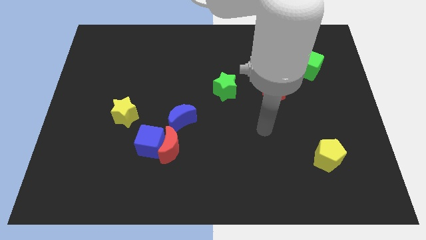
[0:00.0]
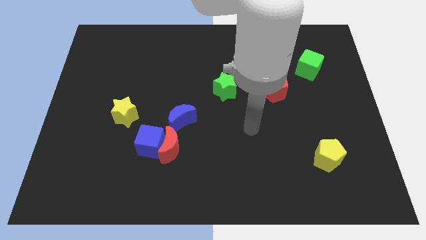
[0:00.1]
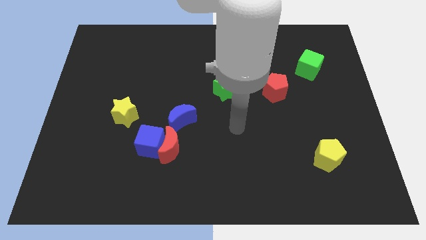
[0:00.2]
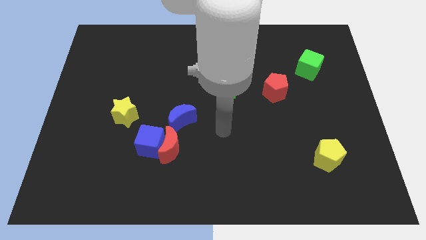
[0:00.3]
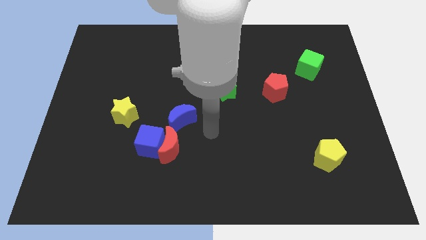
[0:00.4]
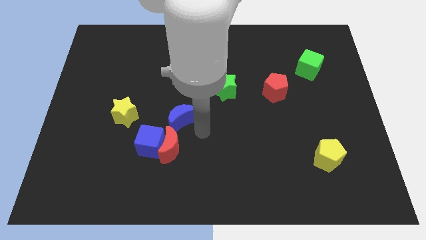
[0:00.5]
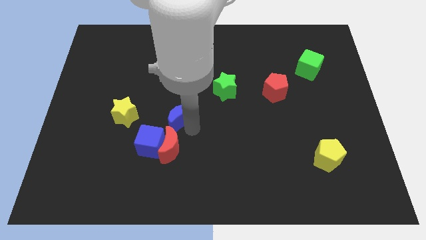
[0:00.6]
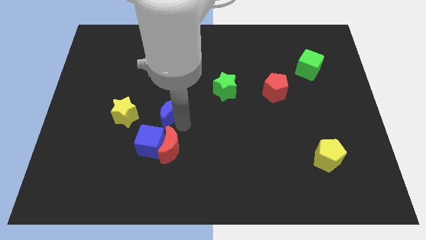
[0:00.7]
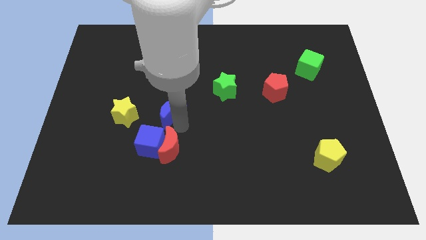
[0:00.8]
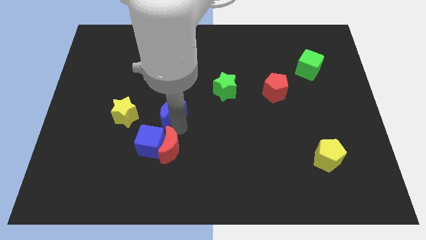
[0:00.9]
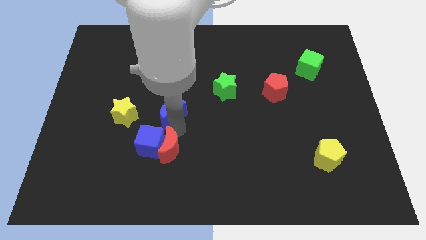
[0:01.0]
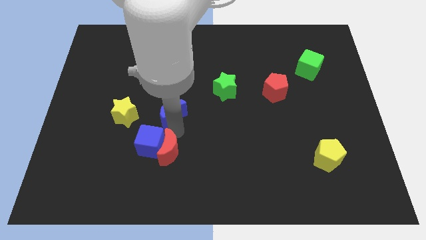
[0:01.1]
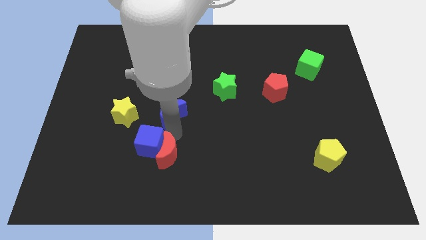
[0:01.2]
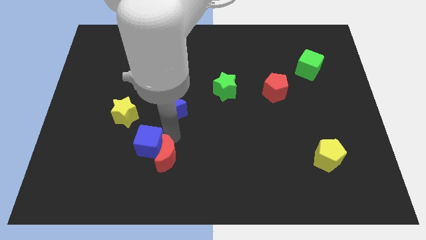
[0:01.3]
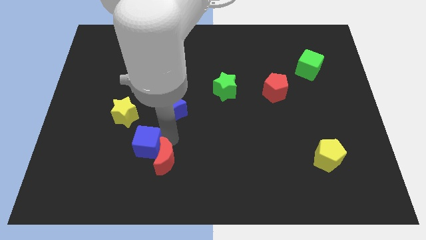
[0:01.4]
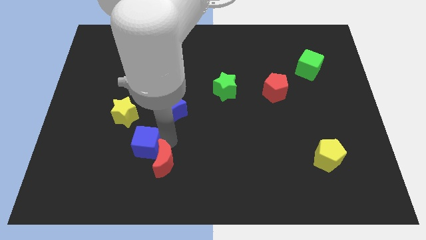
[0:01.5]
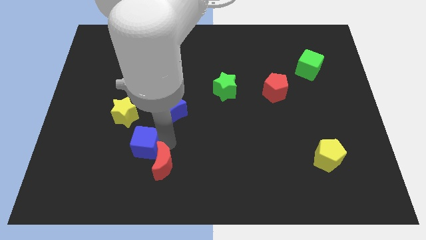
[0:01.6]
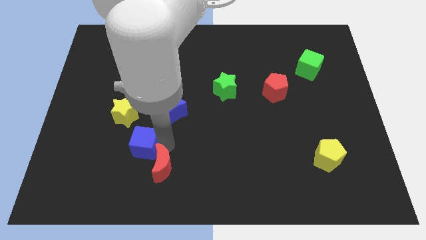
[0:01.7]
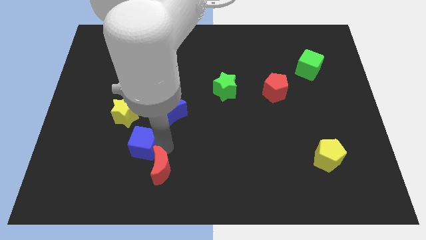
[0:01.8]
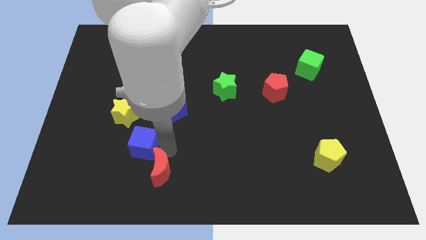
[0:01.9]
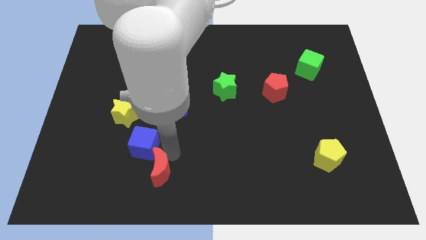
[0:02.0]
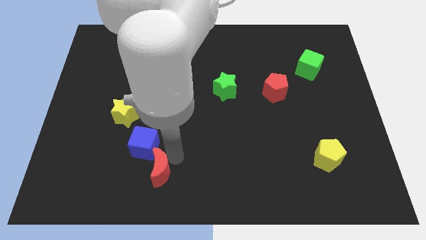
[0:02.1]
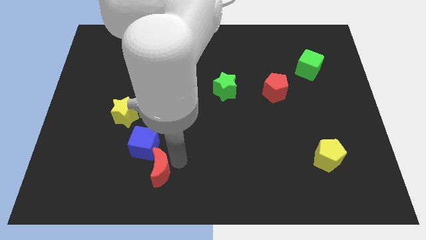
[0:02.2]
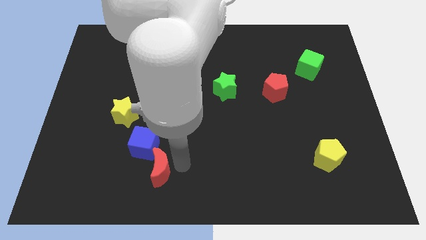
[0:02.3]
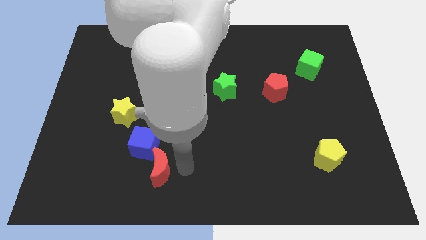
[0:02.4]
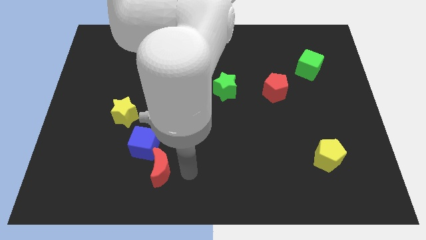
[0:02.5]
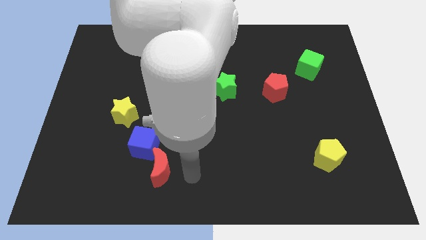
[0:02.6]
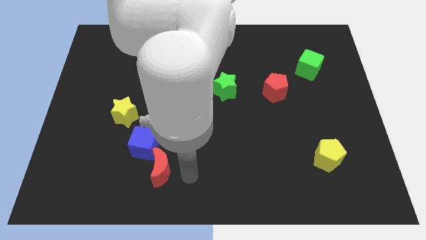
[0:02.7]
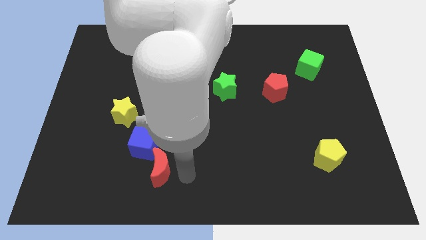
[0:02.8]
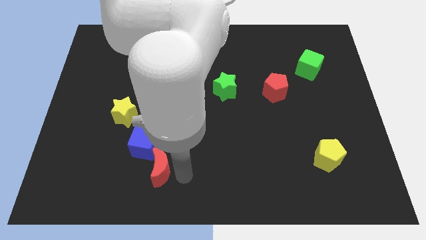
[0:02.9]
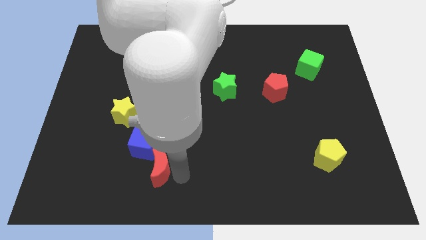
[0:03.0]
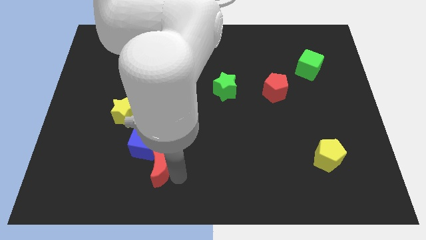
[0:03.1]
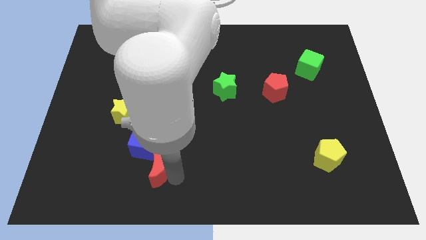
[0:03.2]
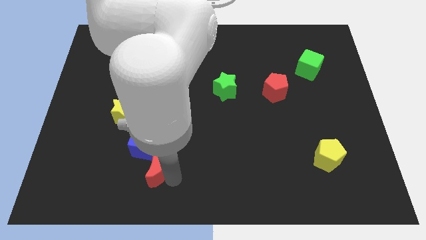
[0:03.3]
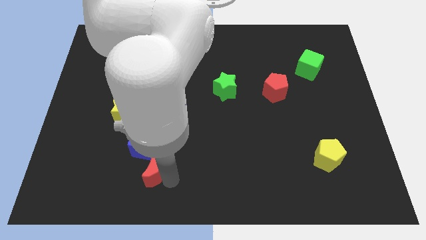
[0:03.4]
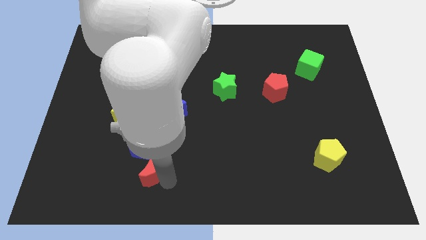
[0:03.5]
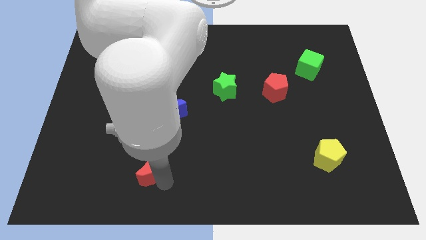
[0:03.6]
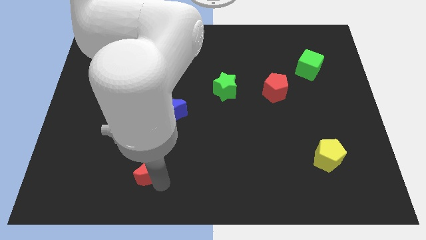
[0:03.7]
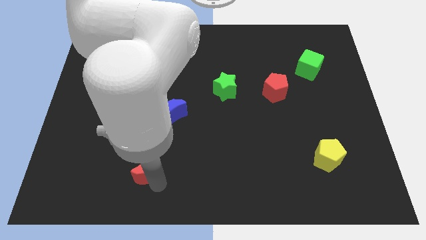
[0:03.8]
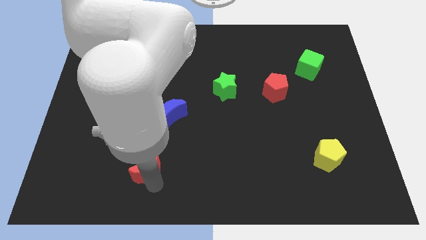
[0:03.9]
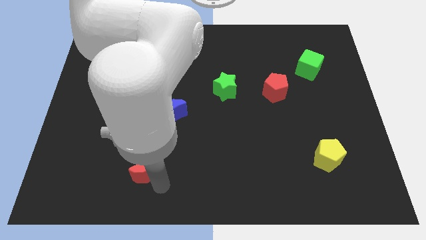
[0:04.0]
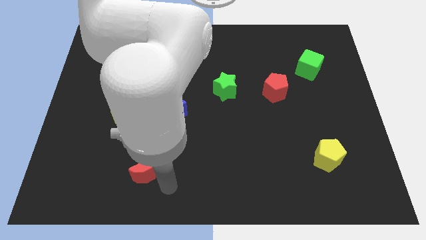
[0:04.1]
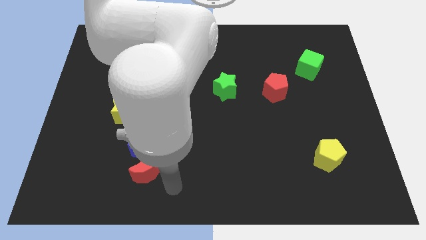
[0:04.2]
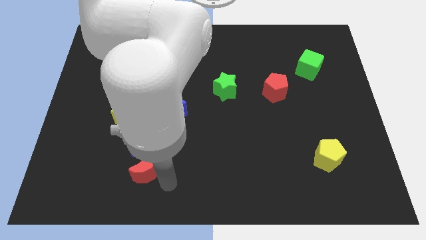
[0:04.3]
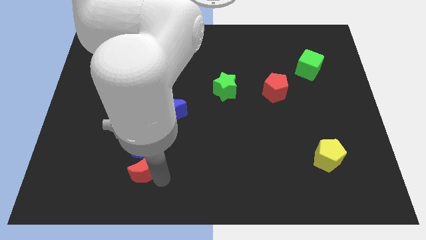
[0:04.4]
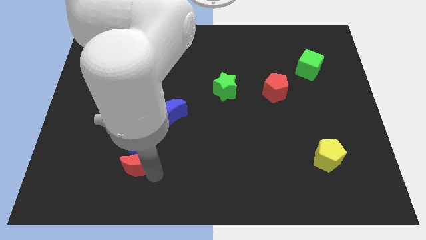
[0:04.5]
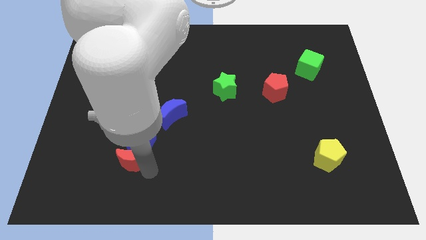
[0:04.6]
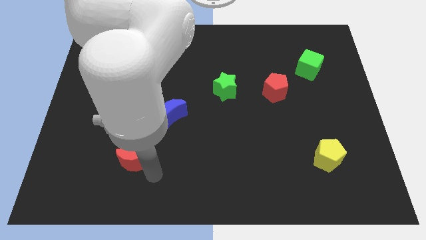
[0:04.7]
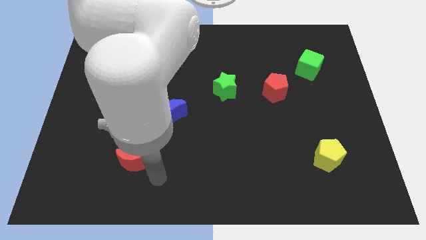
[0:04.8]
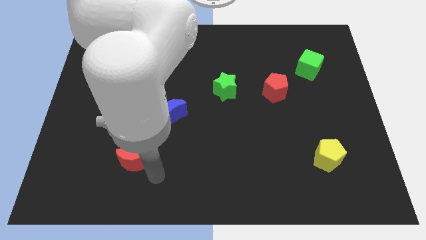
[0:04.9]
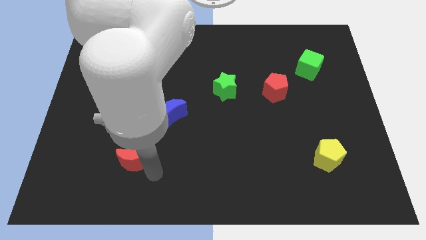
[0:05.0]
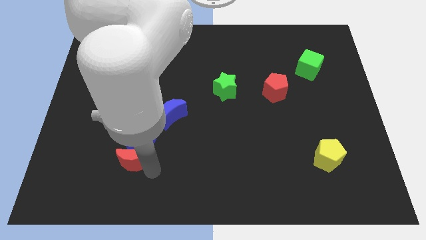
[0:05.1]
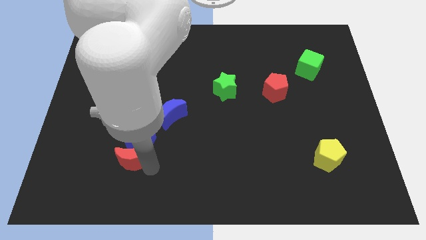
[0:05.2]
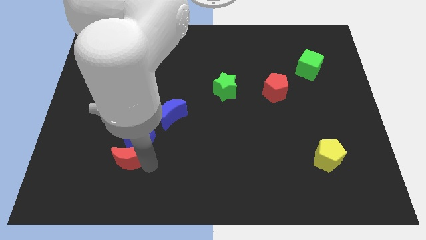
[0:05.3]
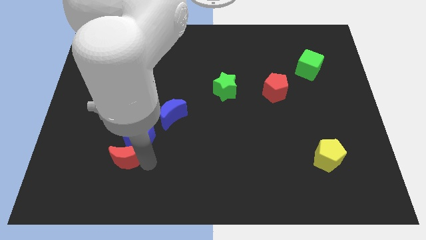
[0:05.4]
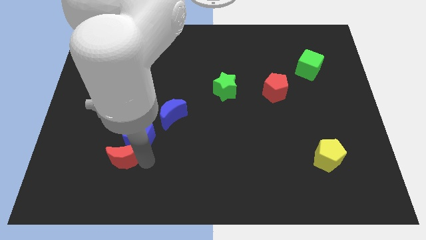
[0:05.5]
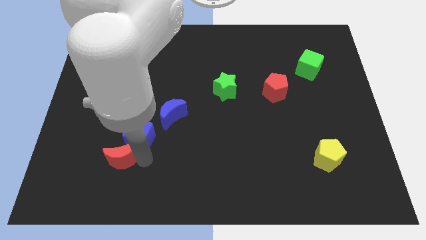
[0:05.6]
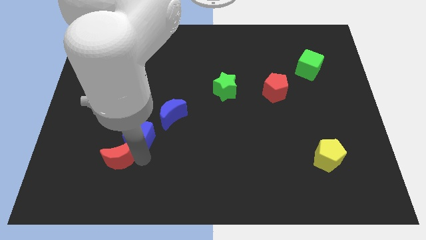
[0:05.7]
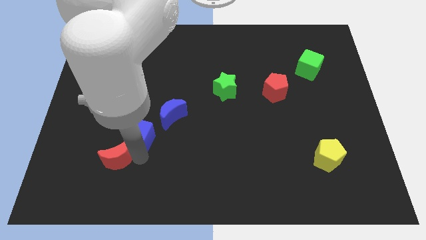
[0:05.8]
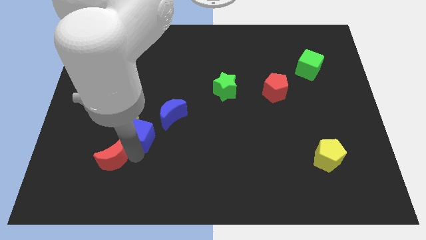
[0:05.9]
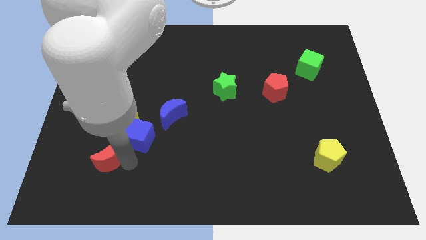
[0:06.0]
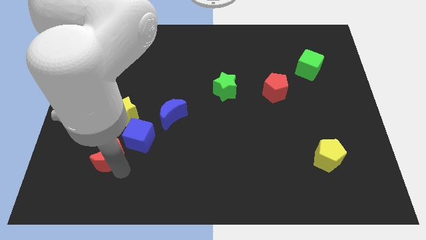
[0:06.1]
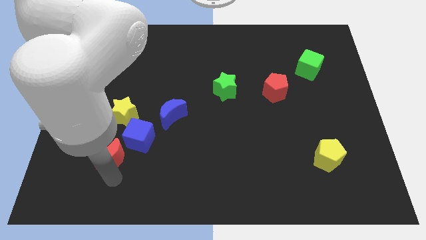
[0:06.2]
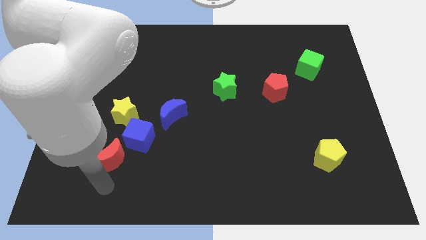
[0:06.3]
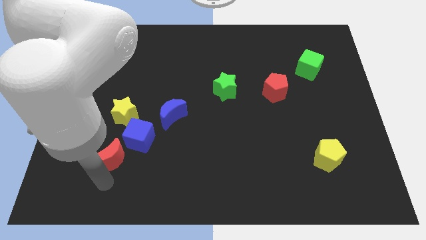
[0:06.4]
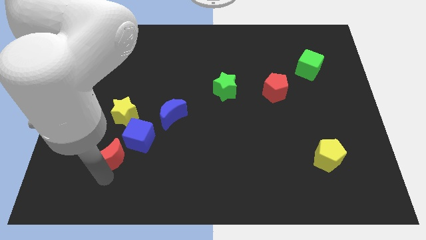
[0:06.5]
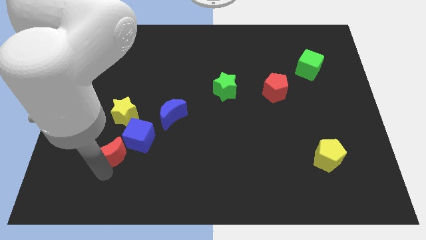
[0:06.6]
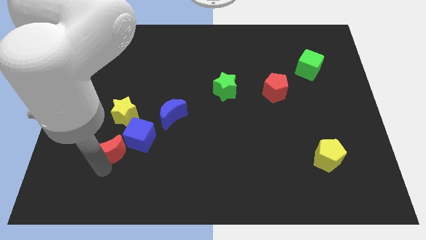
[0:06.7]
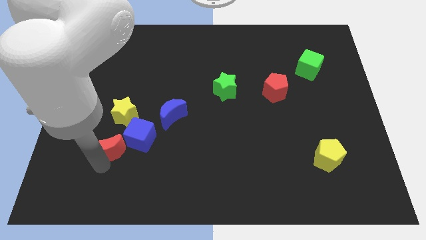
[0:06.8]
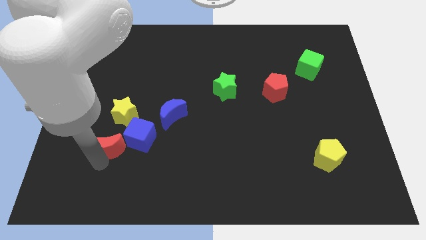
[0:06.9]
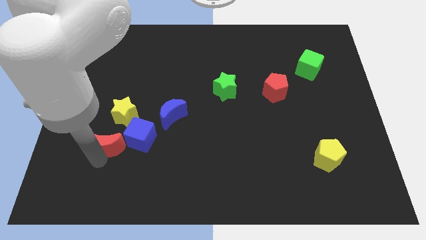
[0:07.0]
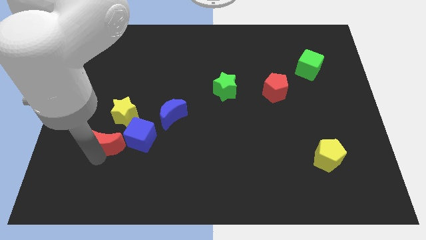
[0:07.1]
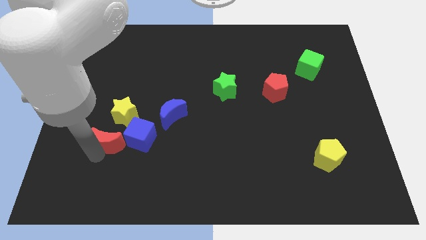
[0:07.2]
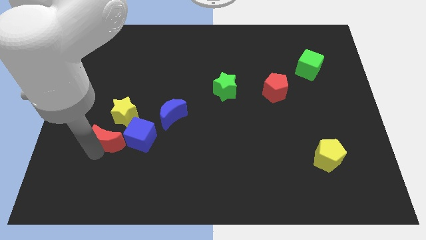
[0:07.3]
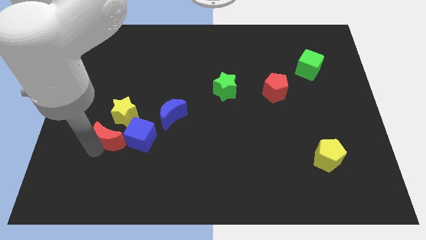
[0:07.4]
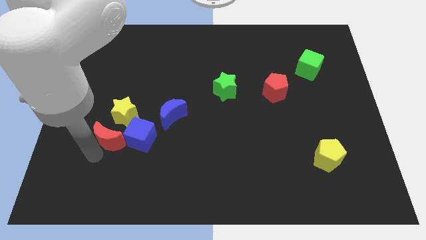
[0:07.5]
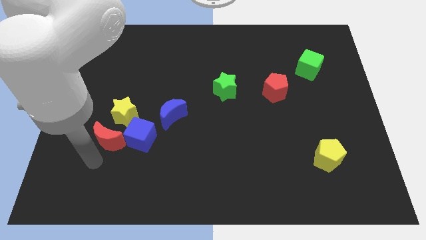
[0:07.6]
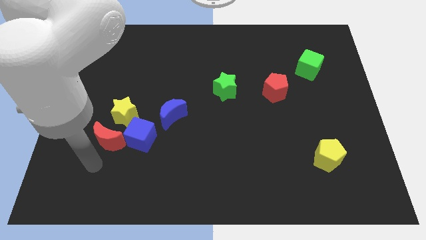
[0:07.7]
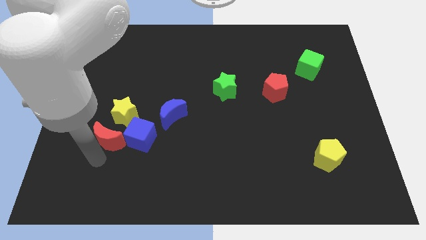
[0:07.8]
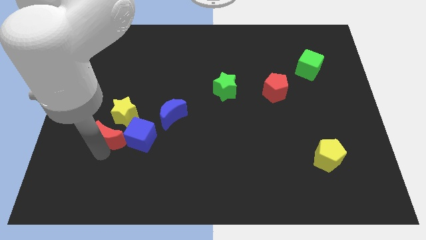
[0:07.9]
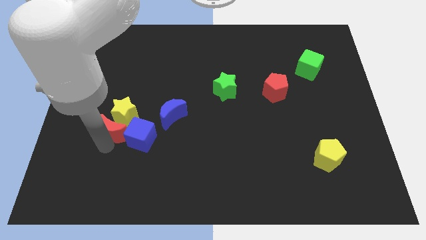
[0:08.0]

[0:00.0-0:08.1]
put the red moon next to the yellow star
